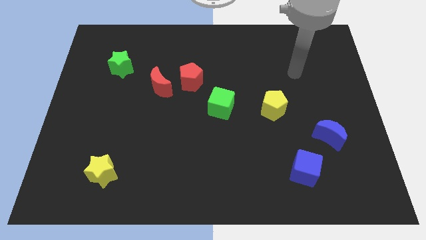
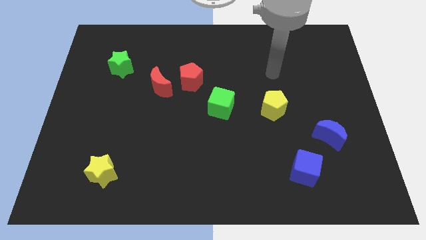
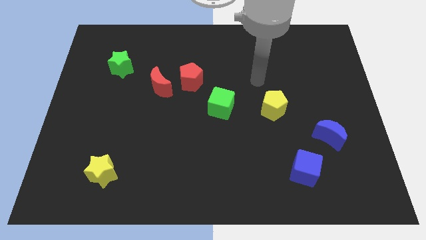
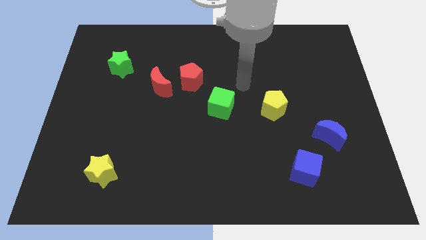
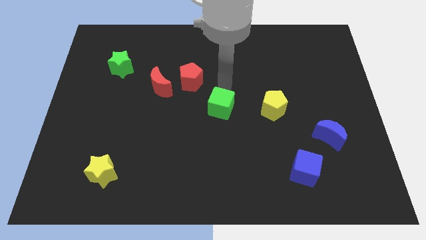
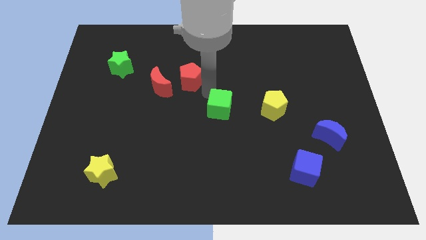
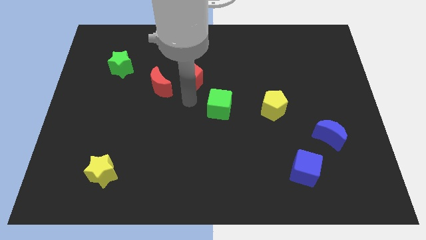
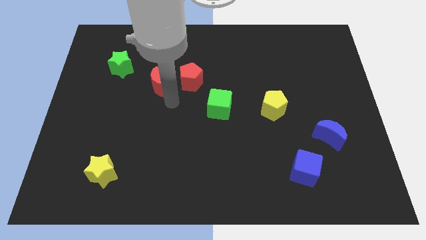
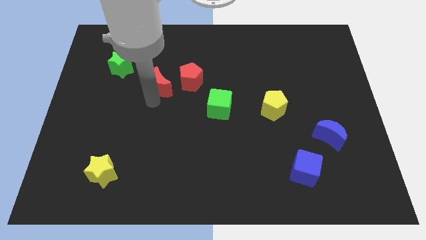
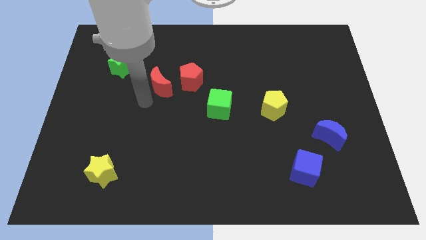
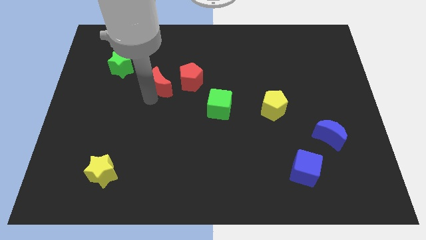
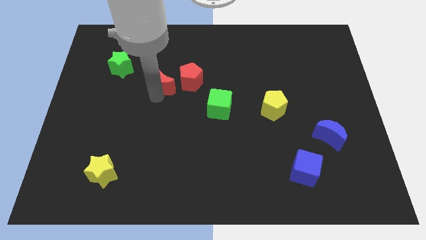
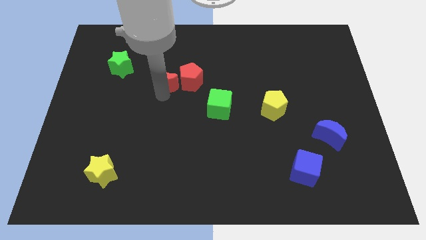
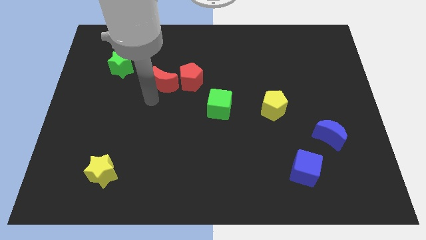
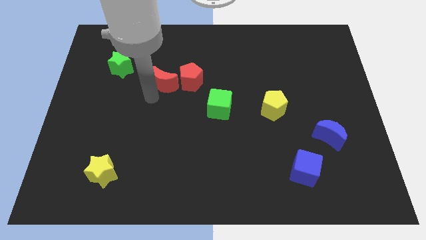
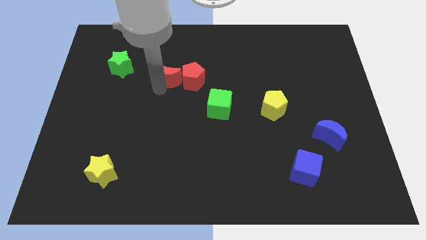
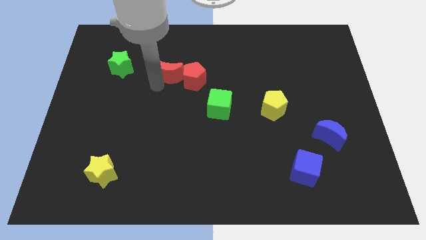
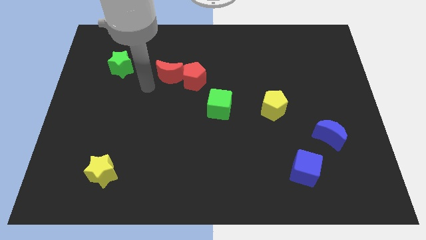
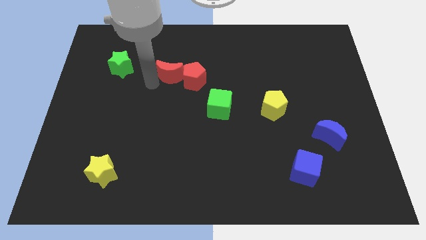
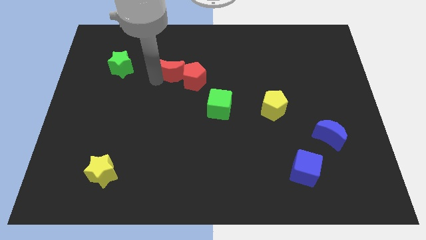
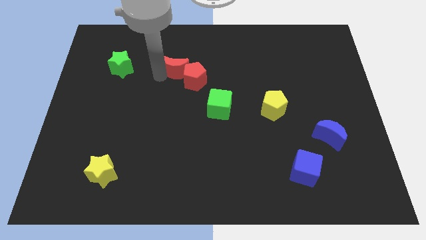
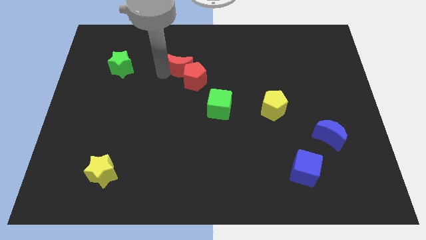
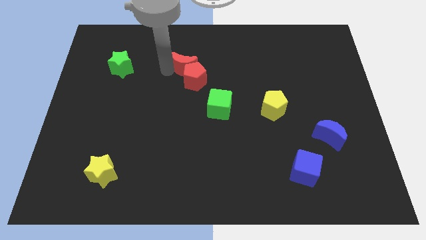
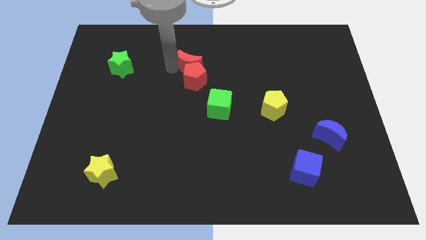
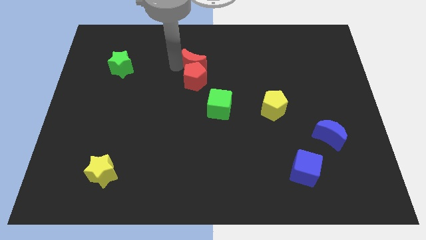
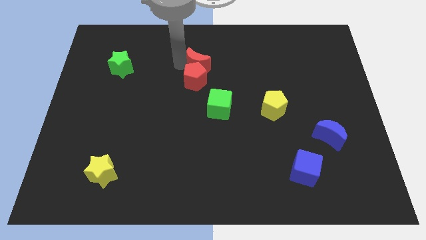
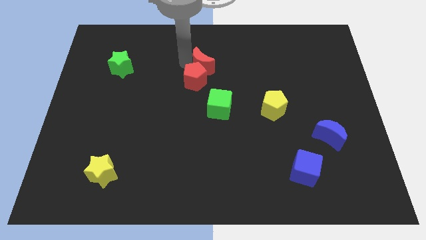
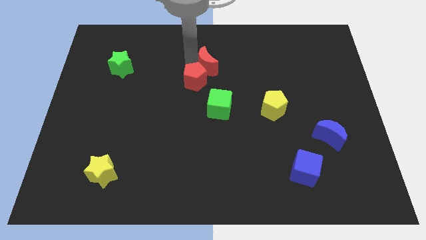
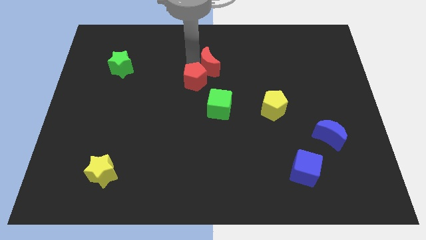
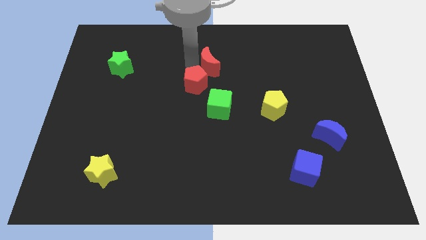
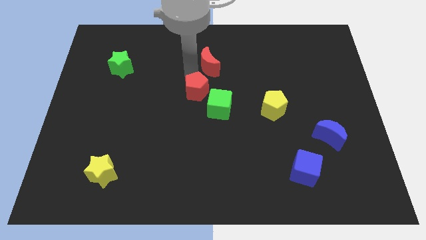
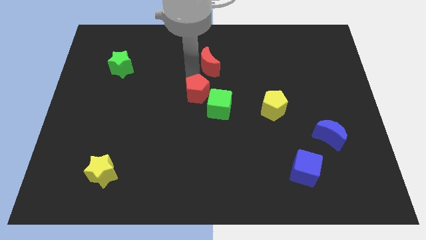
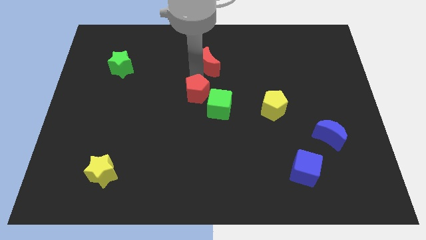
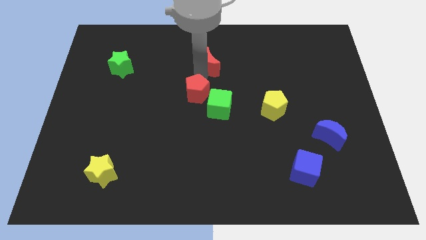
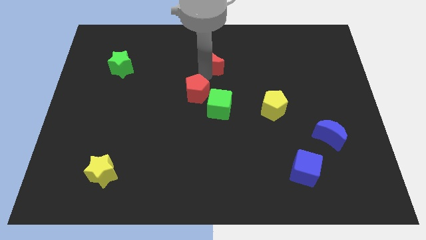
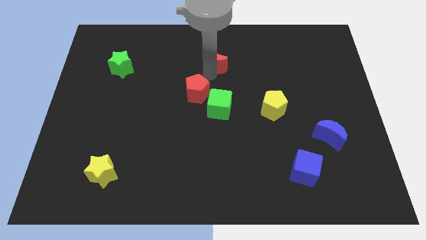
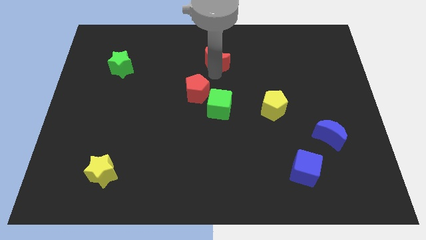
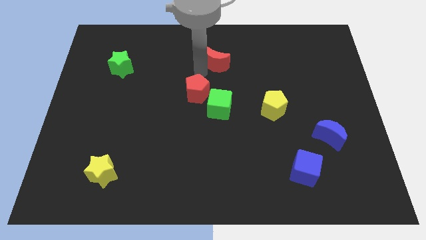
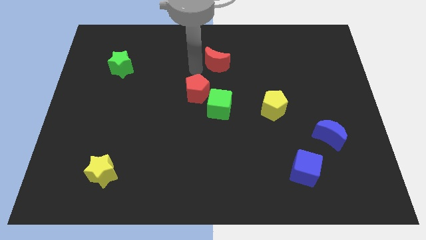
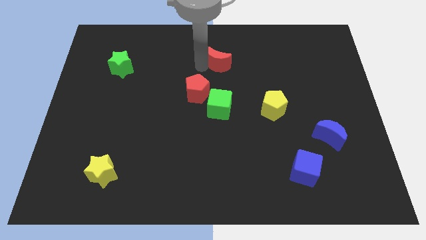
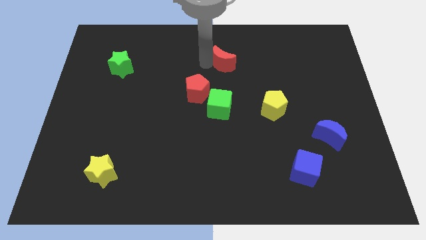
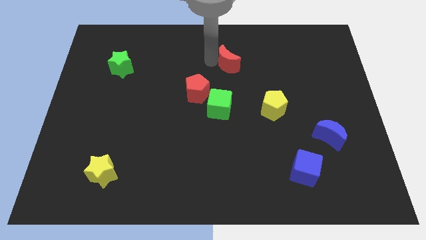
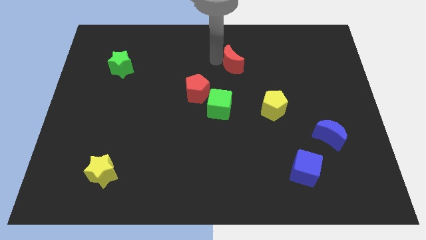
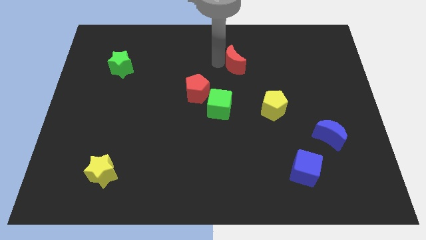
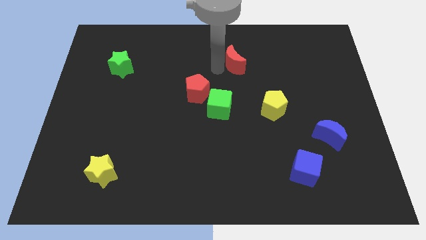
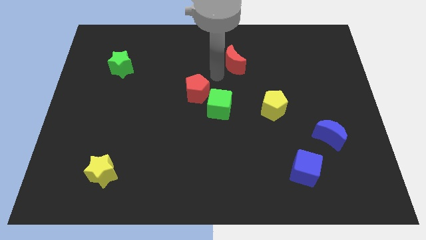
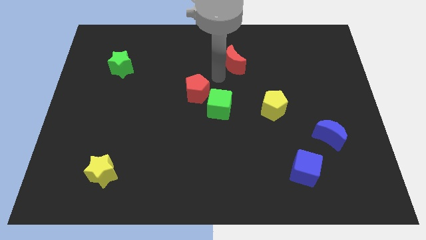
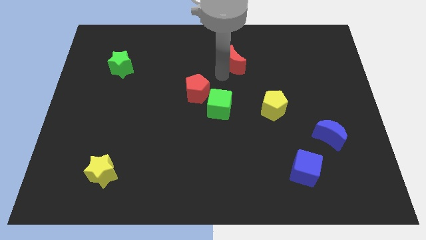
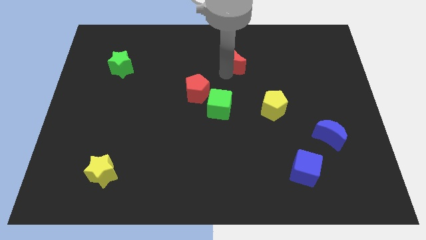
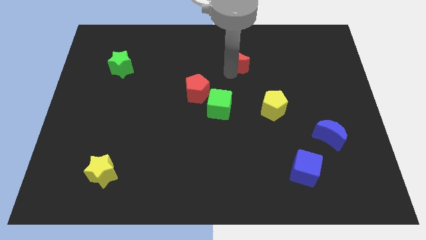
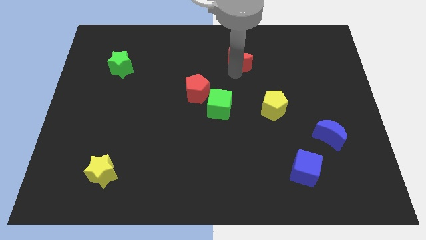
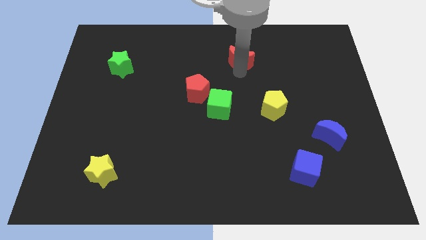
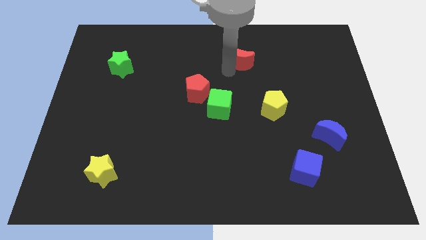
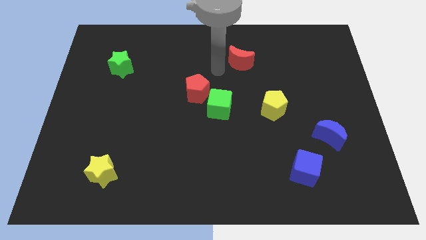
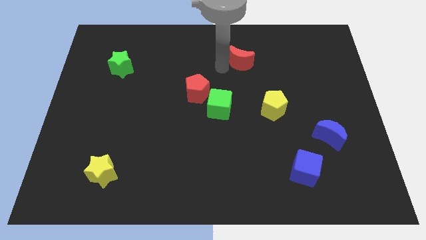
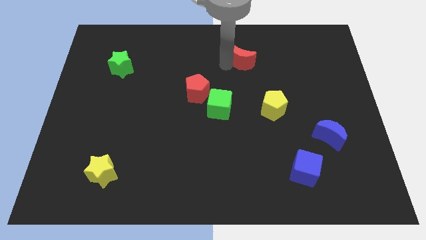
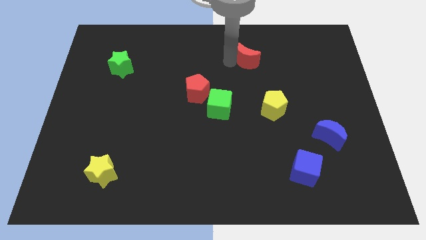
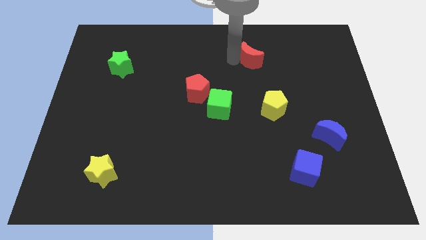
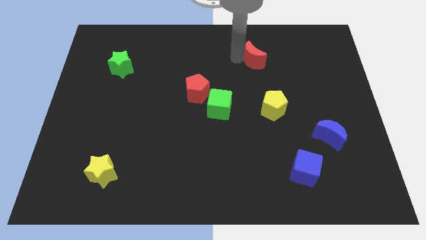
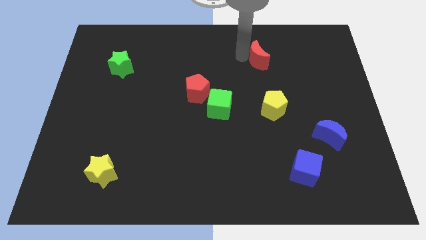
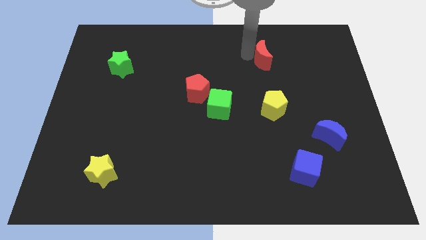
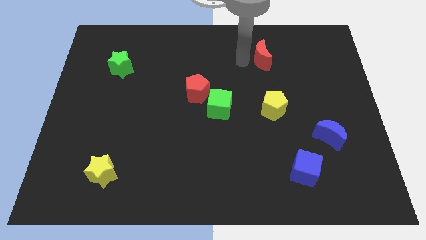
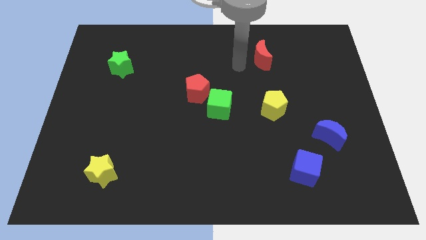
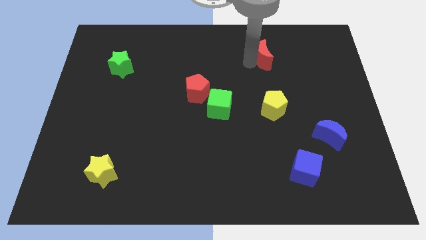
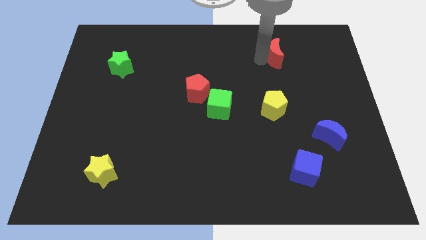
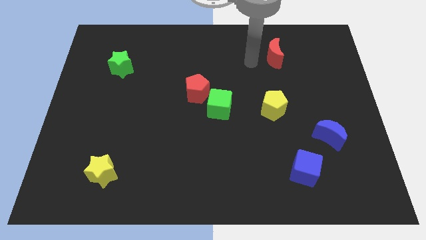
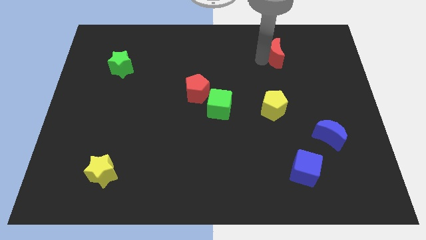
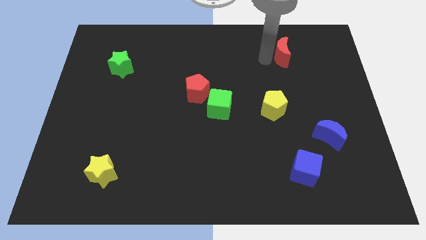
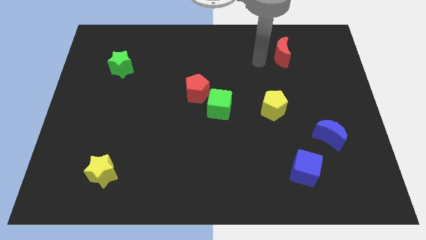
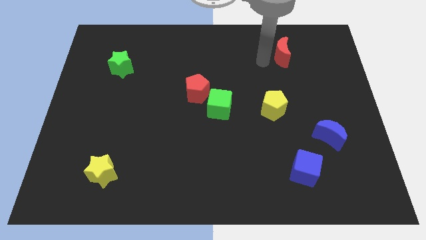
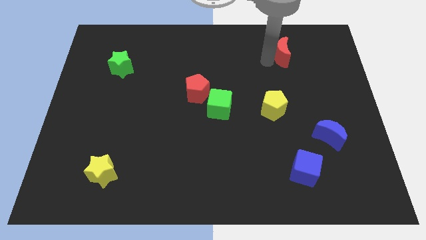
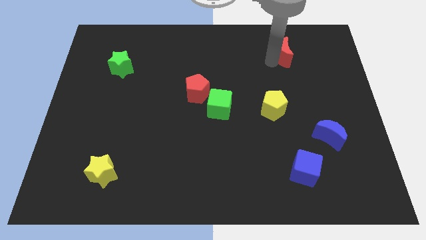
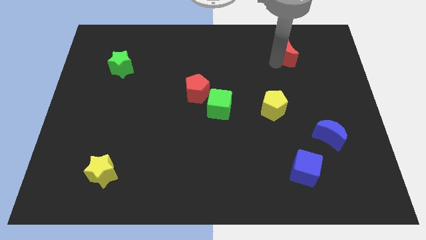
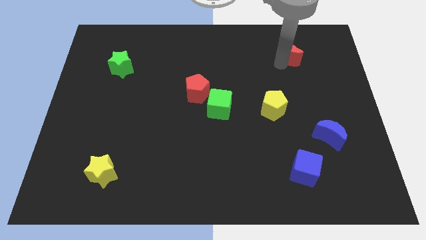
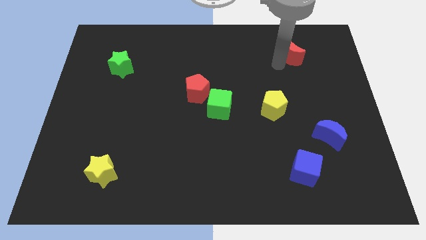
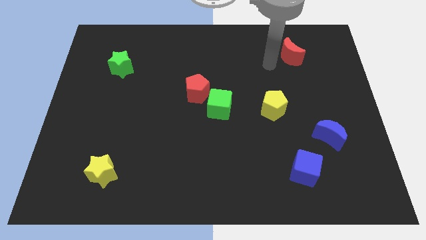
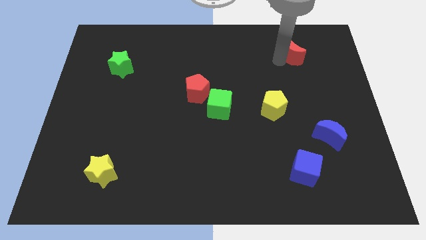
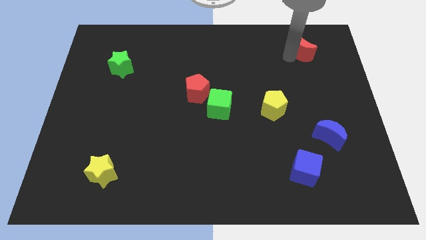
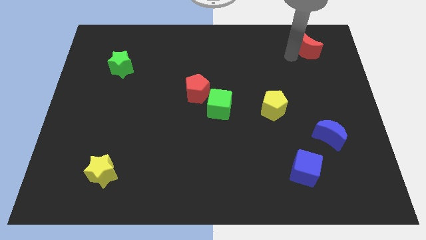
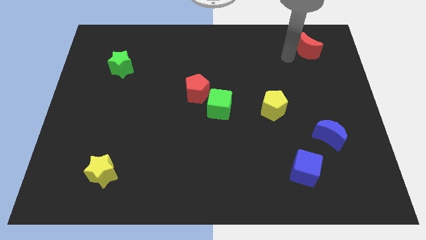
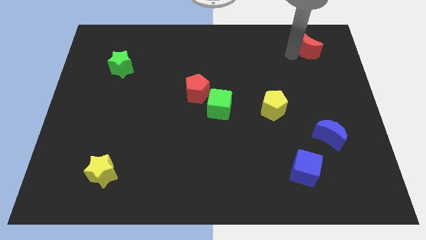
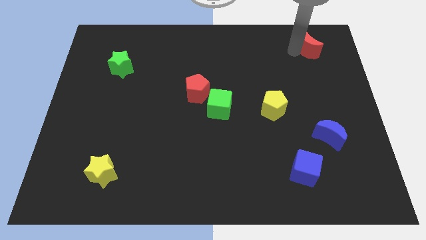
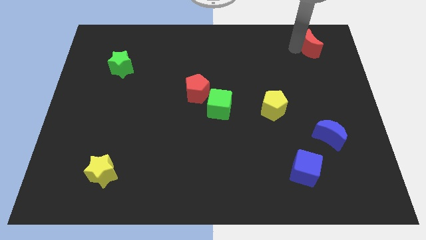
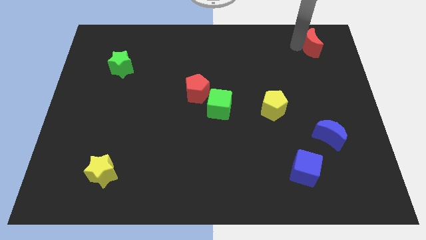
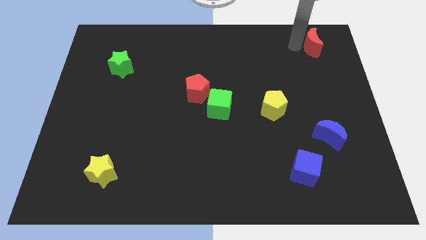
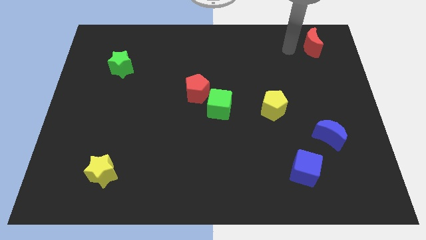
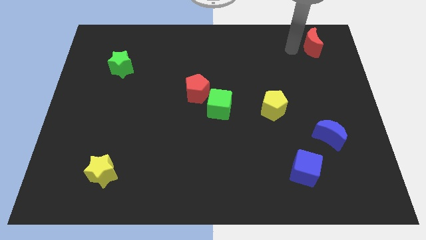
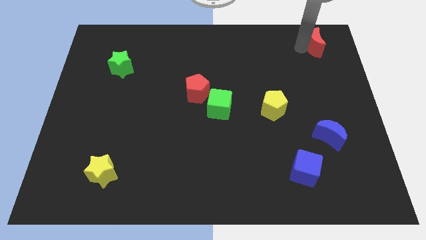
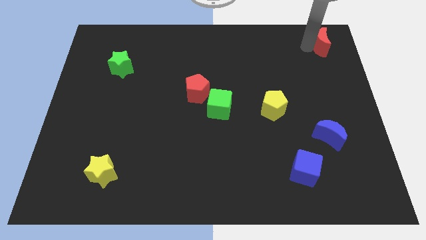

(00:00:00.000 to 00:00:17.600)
move the red moon to the top right
